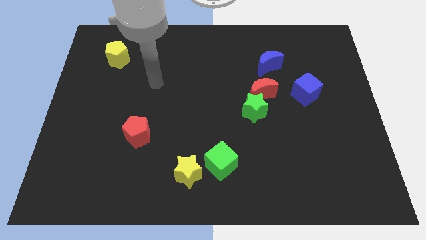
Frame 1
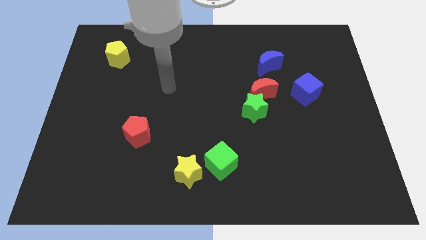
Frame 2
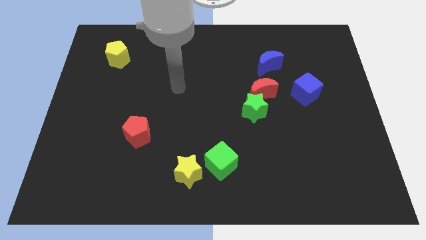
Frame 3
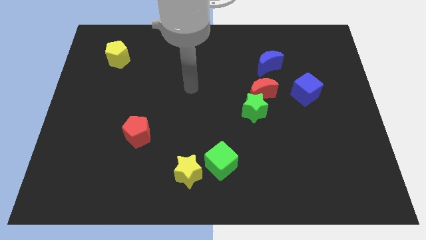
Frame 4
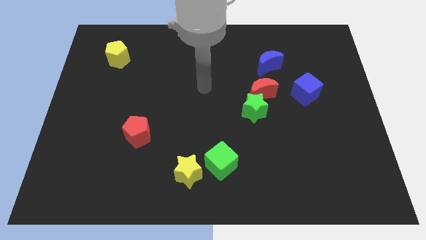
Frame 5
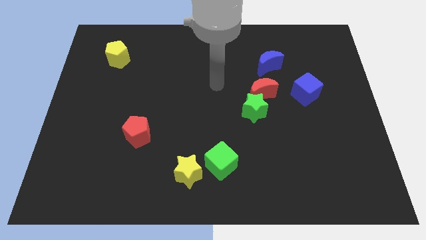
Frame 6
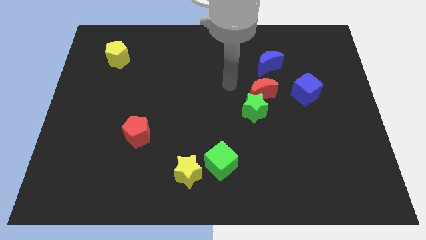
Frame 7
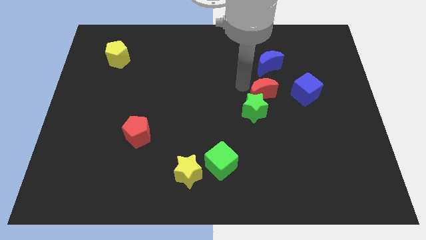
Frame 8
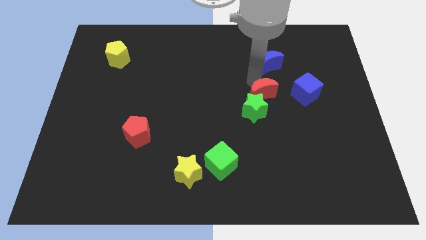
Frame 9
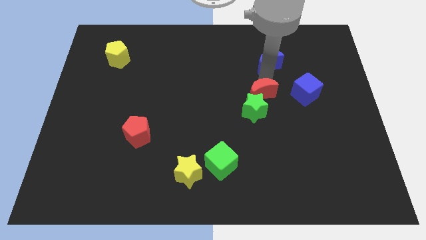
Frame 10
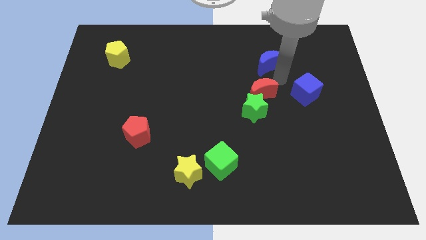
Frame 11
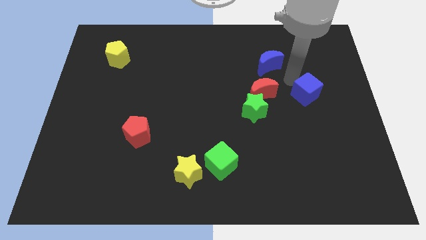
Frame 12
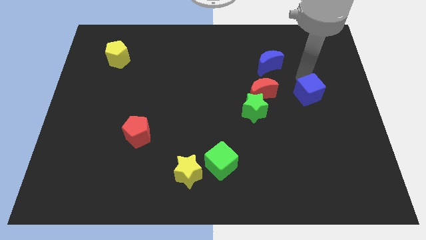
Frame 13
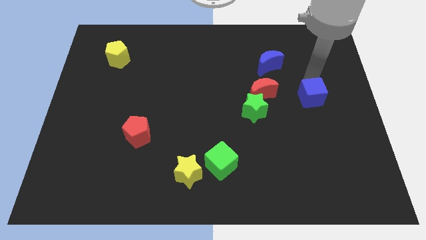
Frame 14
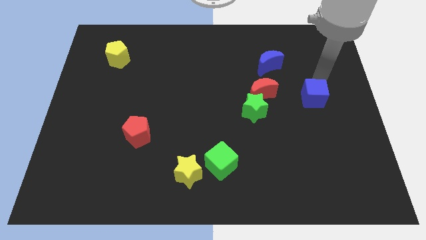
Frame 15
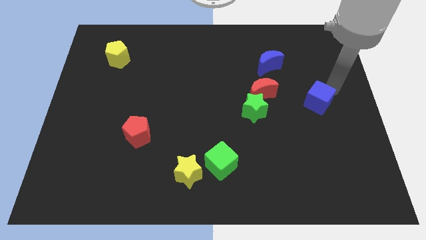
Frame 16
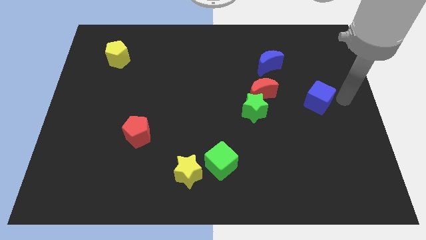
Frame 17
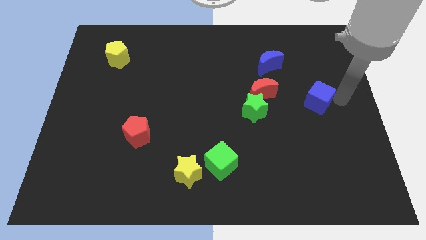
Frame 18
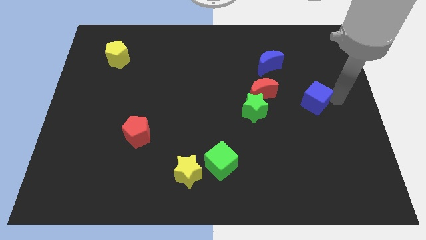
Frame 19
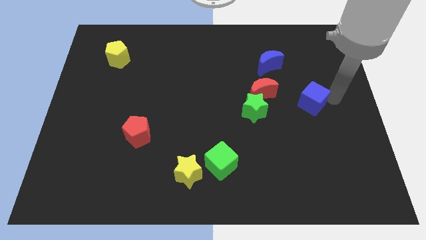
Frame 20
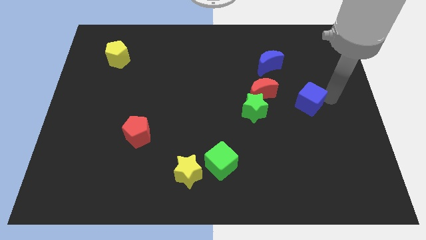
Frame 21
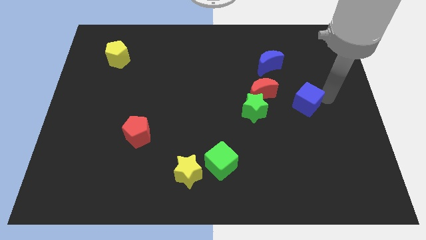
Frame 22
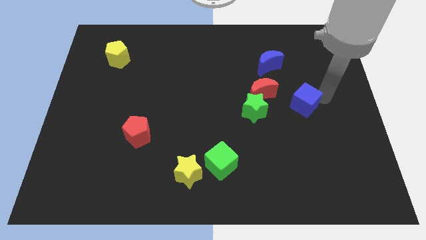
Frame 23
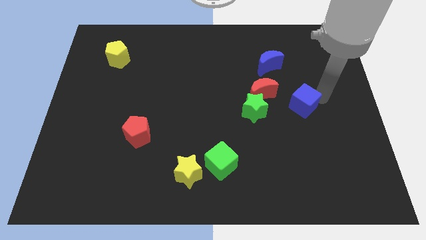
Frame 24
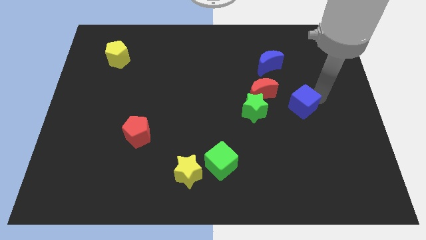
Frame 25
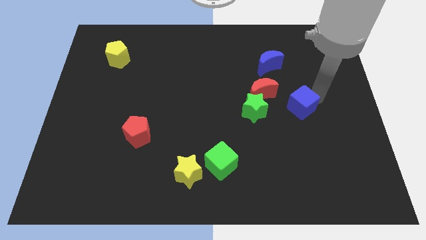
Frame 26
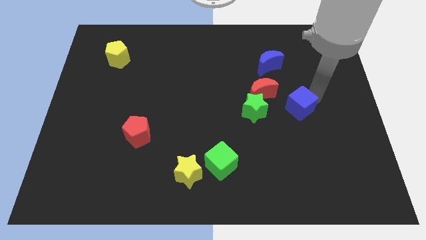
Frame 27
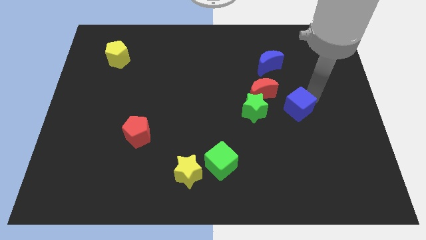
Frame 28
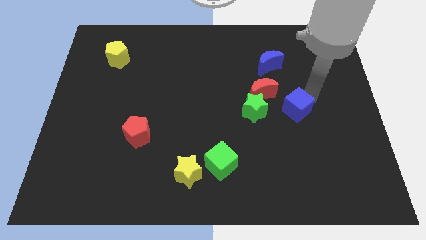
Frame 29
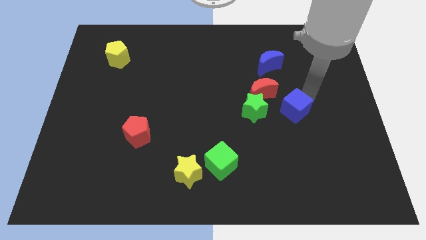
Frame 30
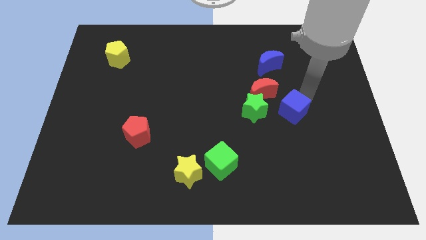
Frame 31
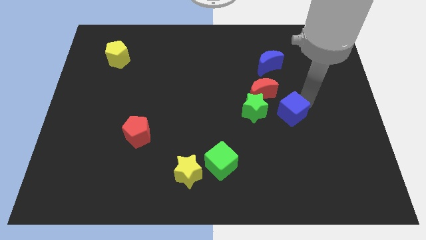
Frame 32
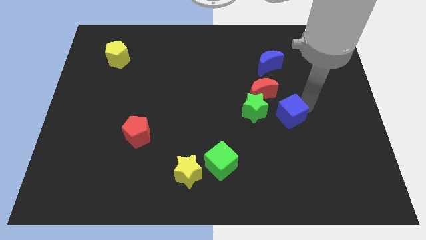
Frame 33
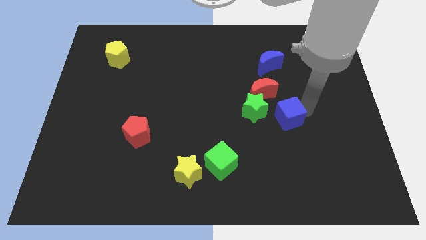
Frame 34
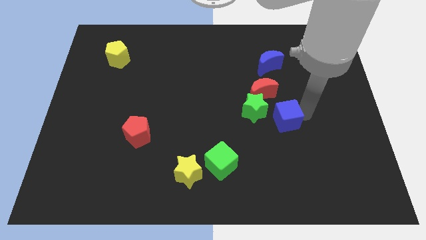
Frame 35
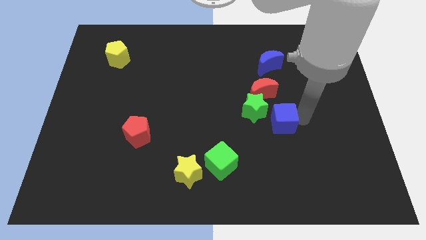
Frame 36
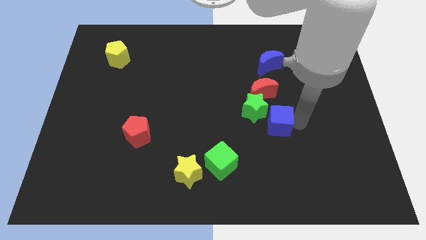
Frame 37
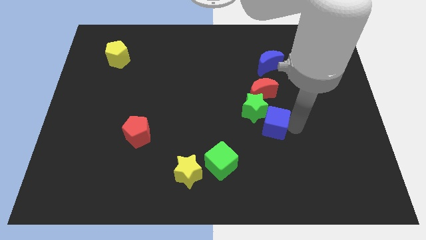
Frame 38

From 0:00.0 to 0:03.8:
put the blue cube next to the green star

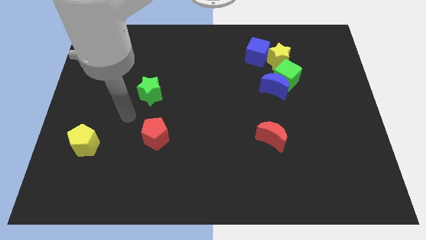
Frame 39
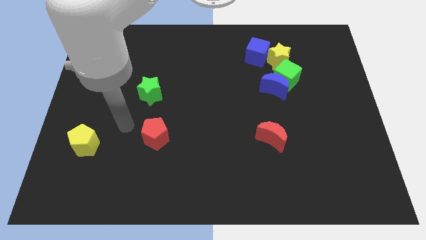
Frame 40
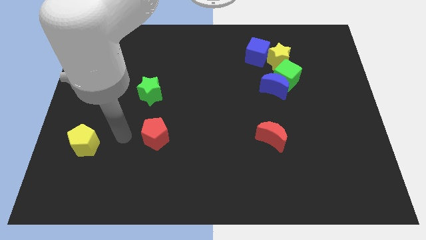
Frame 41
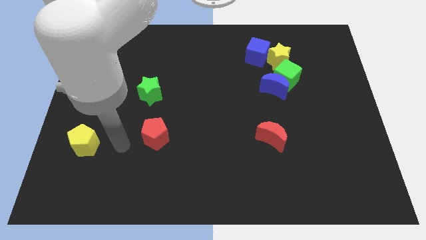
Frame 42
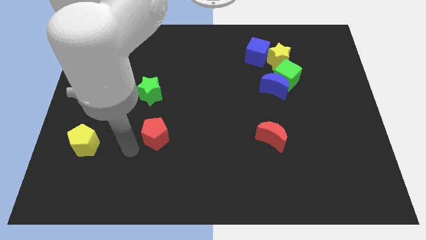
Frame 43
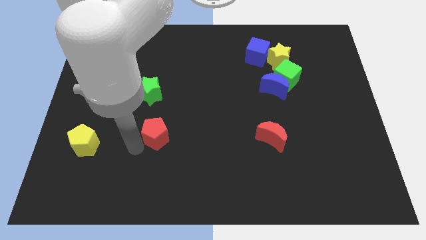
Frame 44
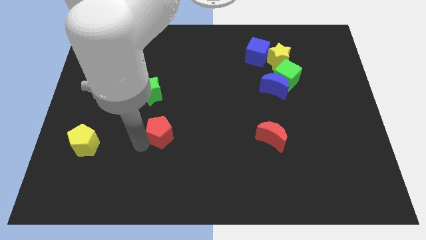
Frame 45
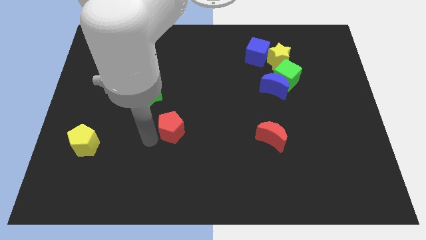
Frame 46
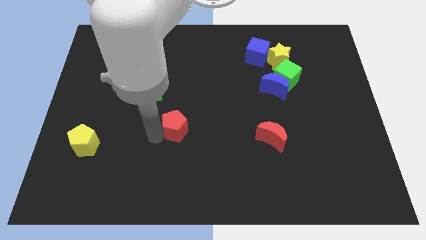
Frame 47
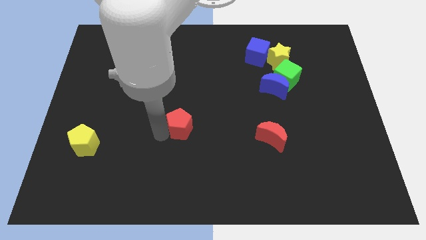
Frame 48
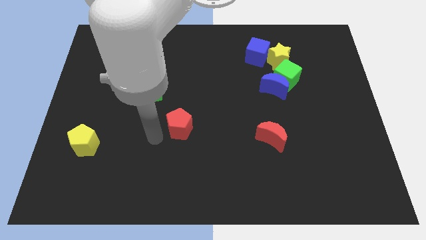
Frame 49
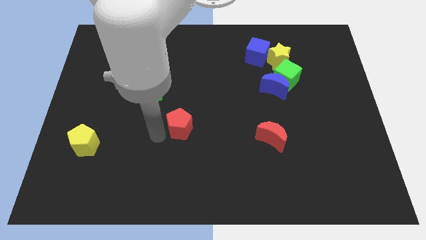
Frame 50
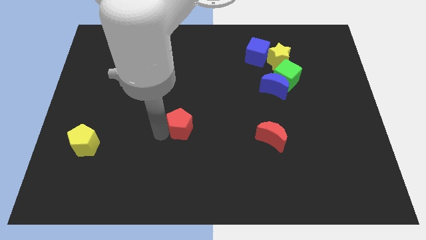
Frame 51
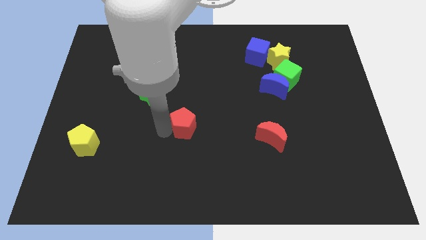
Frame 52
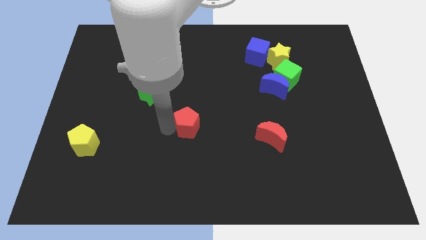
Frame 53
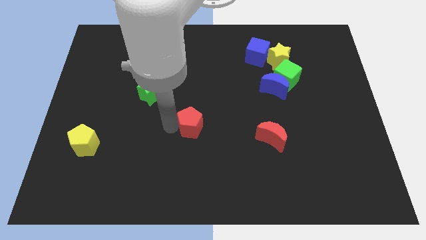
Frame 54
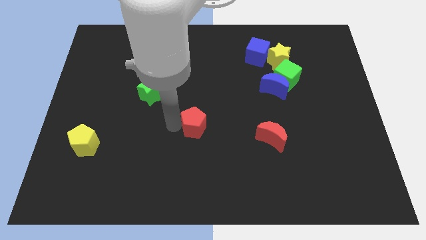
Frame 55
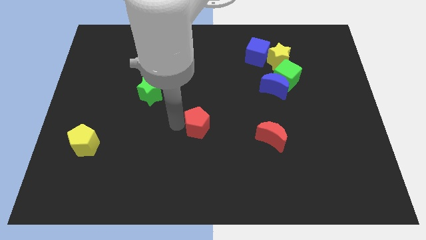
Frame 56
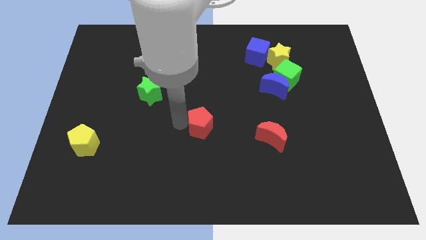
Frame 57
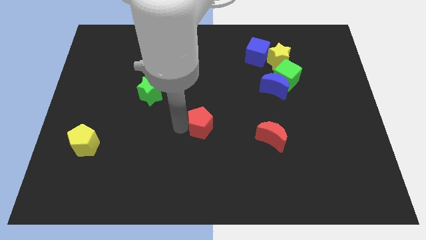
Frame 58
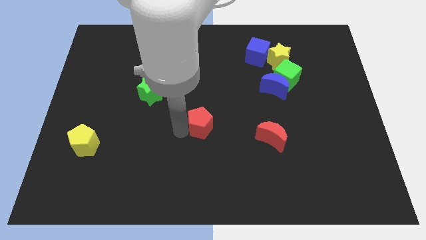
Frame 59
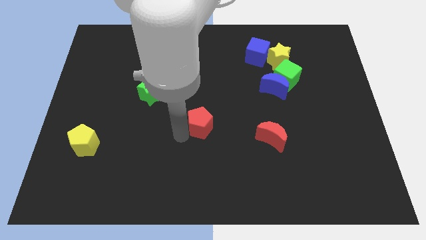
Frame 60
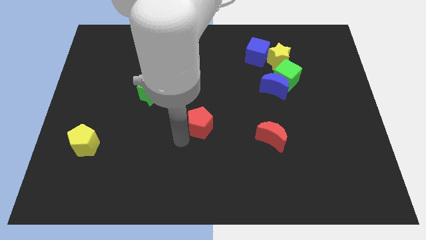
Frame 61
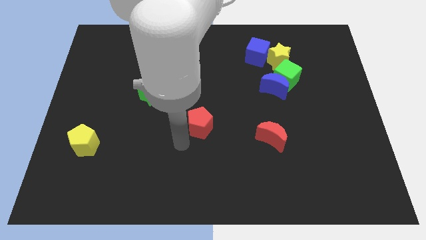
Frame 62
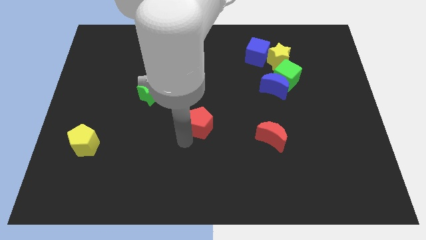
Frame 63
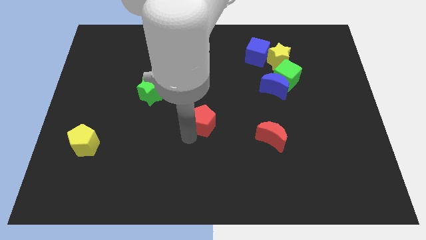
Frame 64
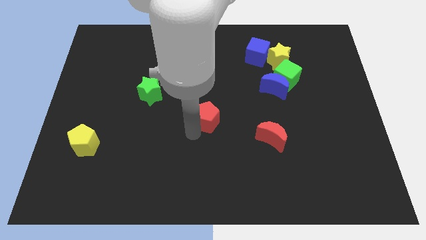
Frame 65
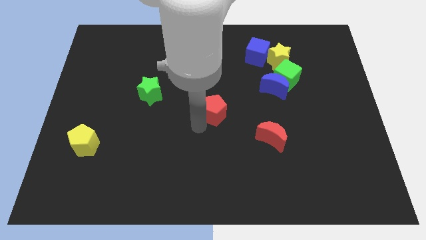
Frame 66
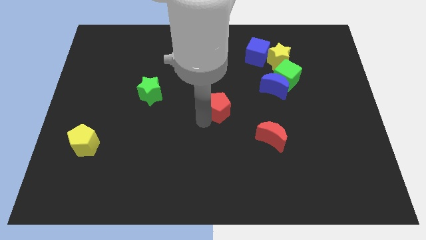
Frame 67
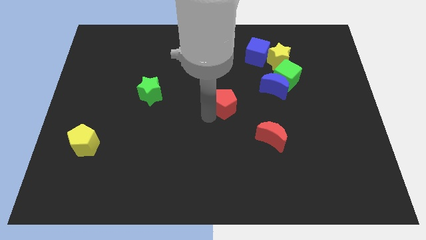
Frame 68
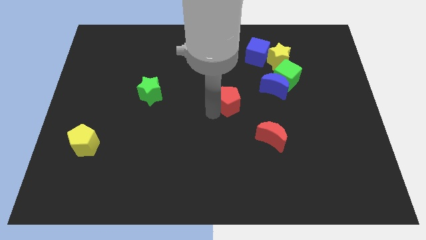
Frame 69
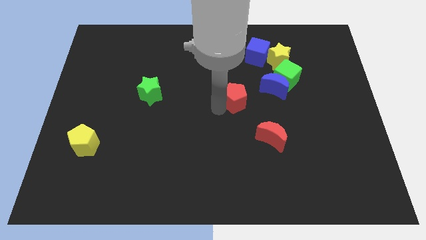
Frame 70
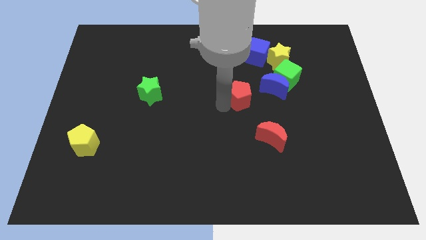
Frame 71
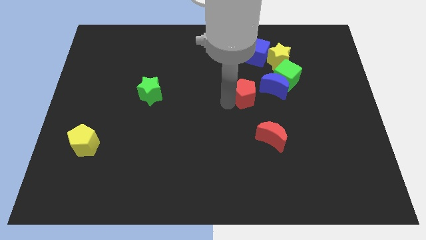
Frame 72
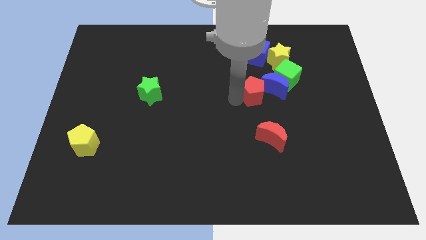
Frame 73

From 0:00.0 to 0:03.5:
put the red pentagon to the blue moon

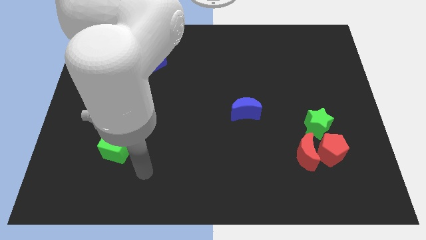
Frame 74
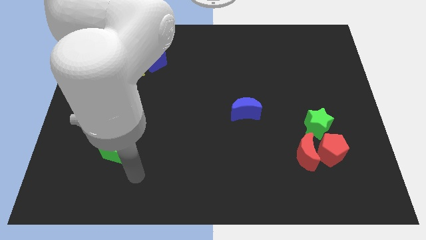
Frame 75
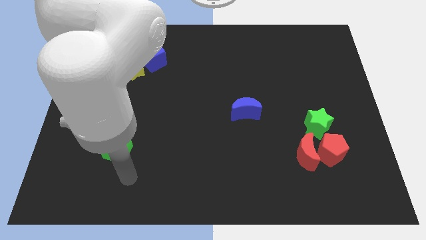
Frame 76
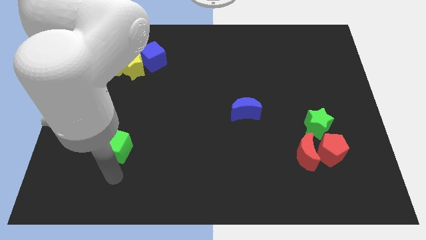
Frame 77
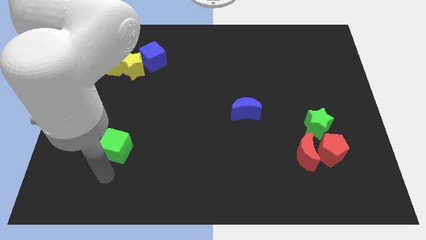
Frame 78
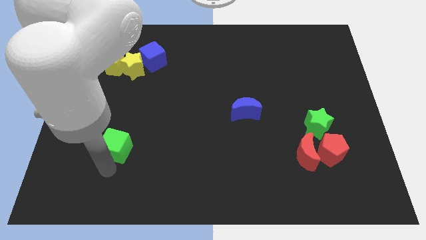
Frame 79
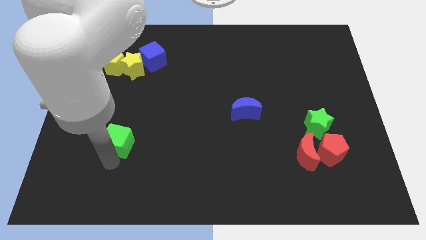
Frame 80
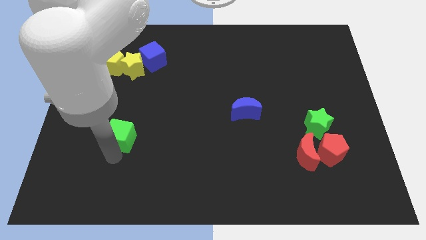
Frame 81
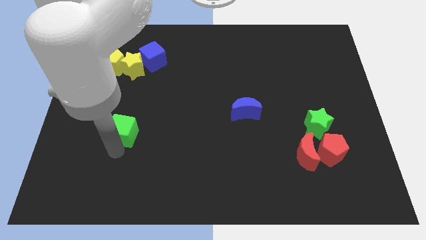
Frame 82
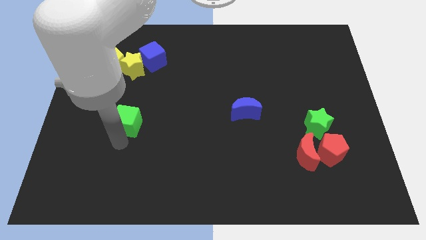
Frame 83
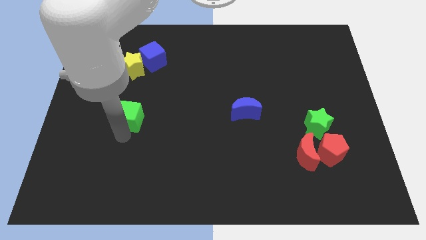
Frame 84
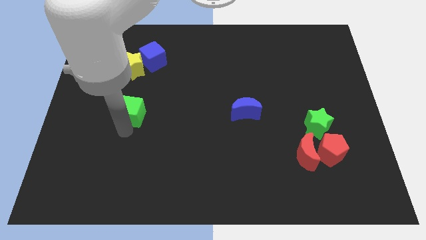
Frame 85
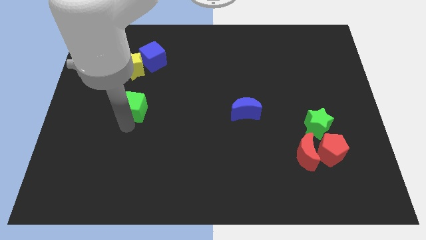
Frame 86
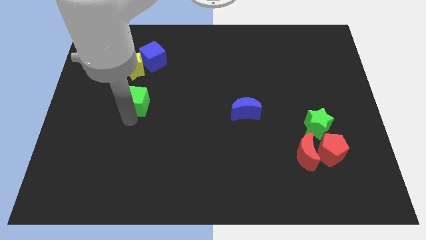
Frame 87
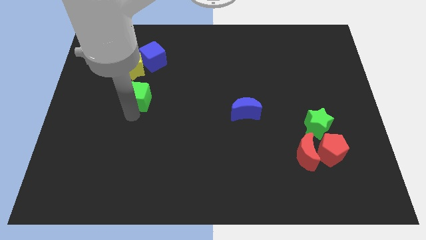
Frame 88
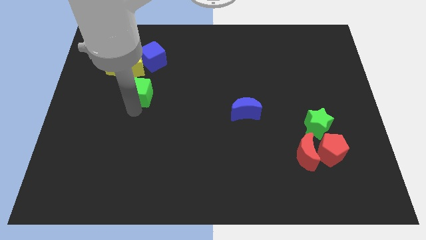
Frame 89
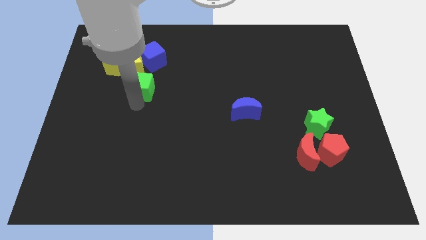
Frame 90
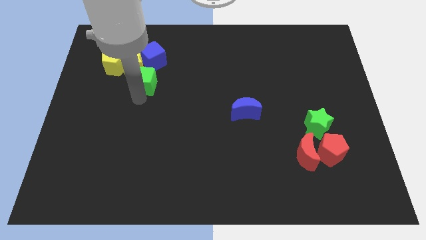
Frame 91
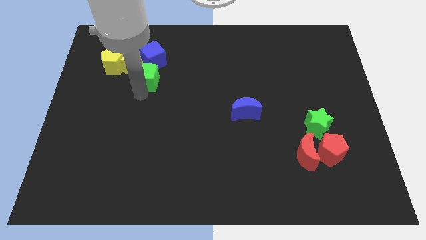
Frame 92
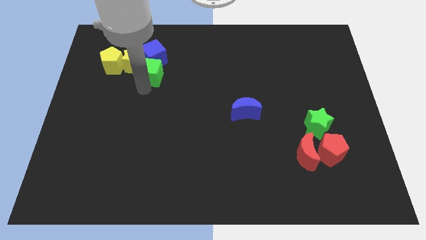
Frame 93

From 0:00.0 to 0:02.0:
move the green cube towards the blue cube
